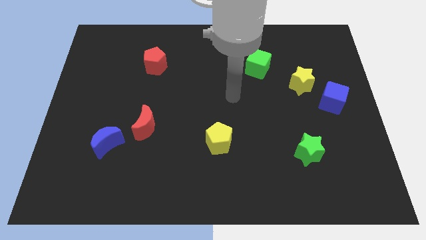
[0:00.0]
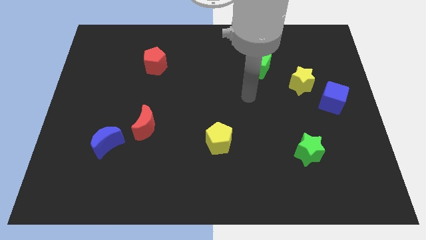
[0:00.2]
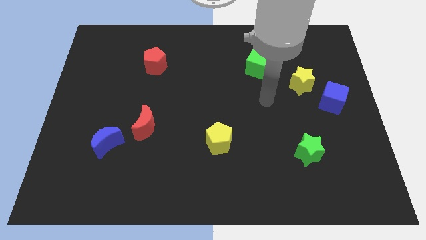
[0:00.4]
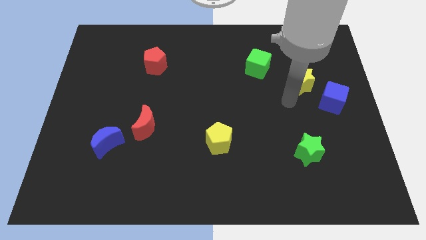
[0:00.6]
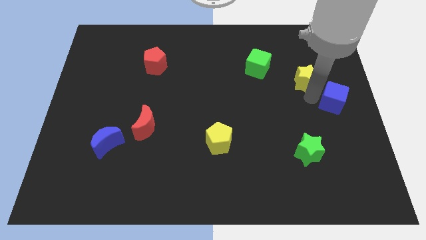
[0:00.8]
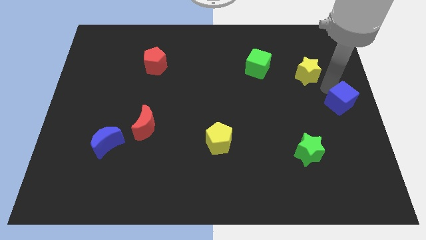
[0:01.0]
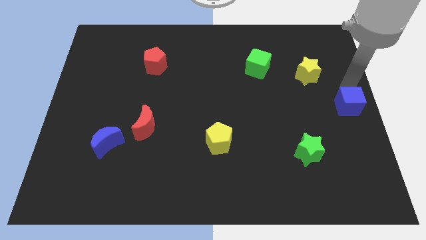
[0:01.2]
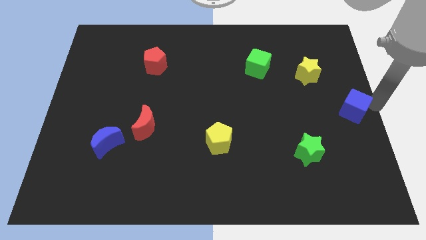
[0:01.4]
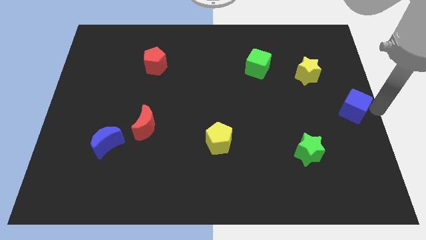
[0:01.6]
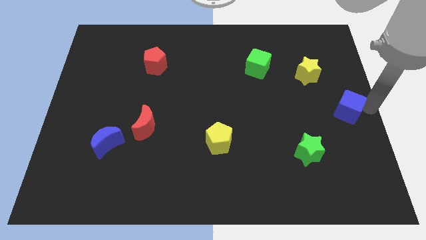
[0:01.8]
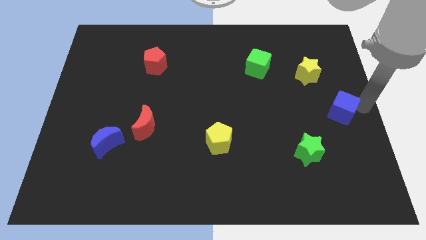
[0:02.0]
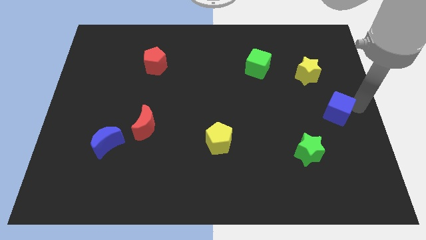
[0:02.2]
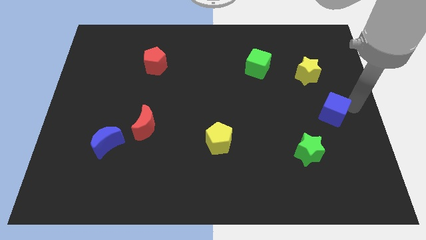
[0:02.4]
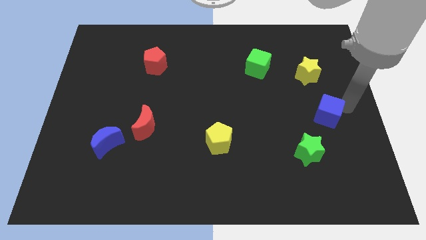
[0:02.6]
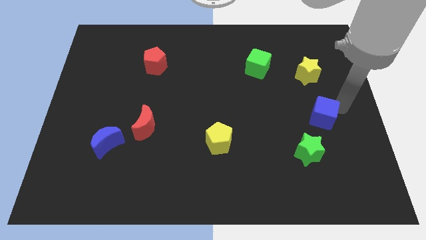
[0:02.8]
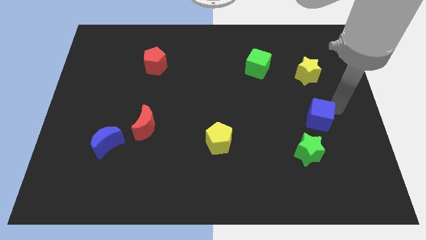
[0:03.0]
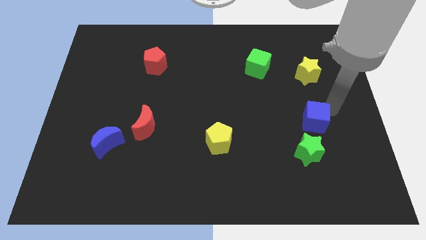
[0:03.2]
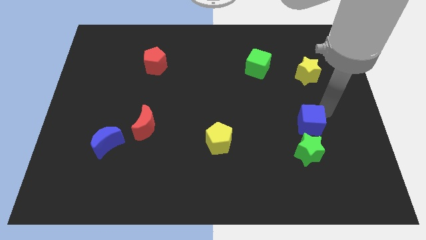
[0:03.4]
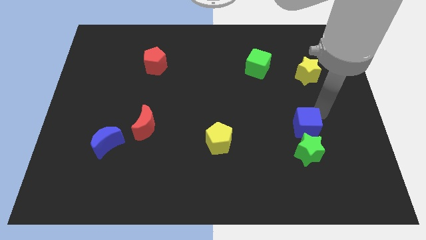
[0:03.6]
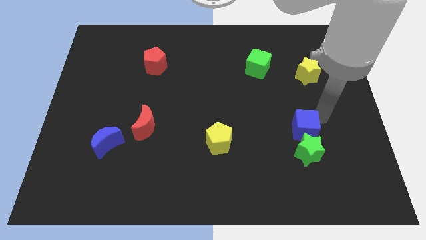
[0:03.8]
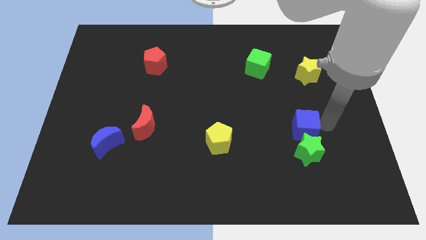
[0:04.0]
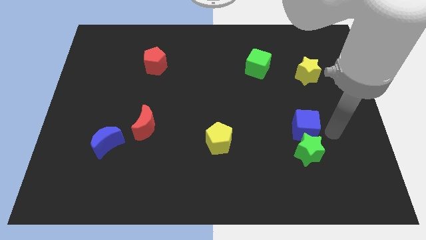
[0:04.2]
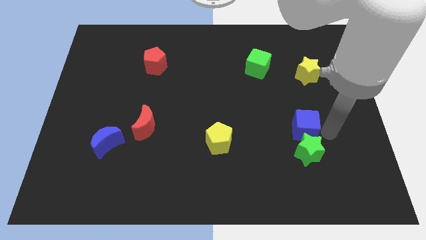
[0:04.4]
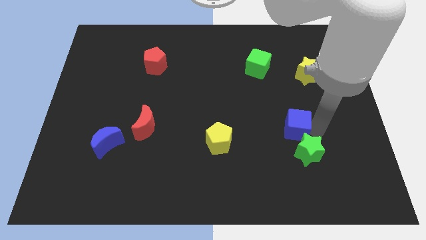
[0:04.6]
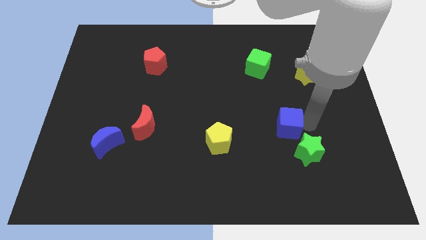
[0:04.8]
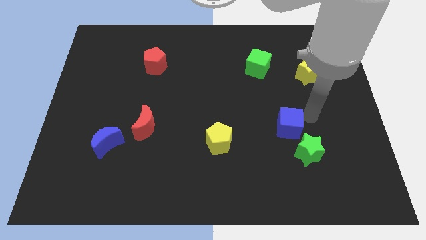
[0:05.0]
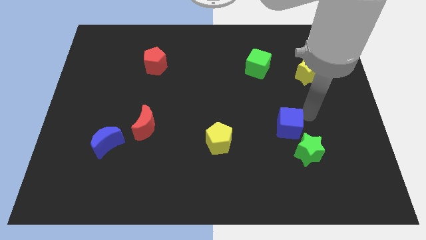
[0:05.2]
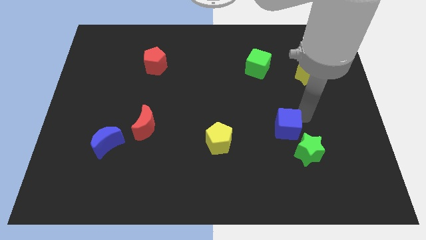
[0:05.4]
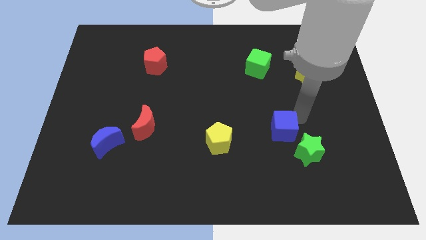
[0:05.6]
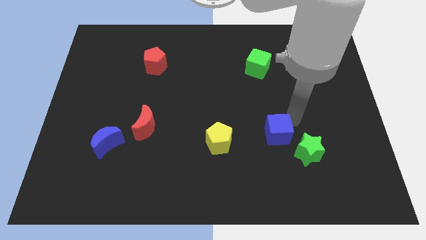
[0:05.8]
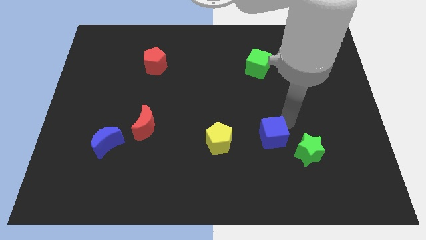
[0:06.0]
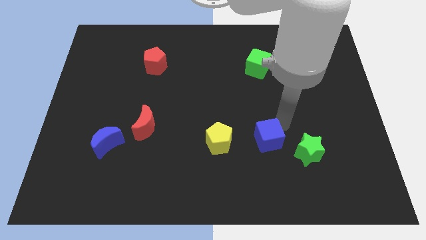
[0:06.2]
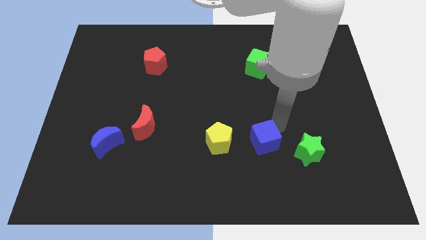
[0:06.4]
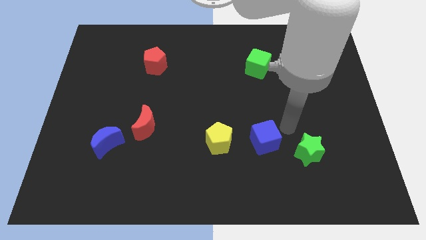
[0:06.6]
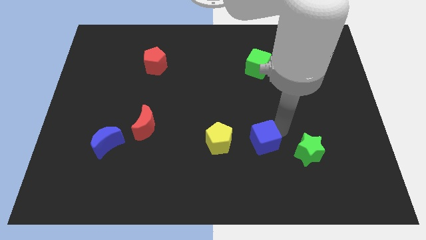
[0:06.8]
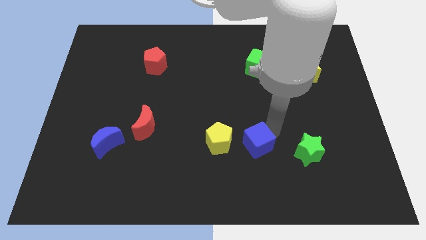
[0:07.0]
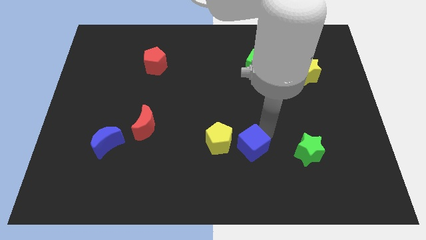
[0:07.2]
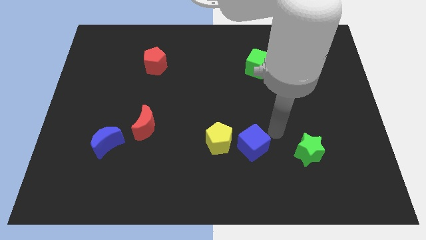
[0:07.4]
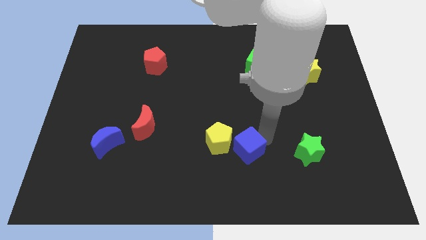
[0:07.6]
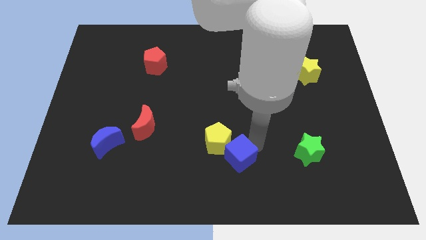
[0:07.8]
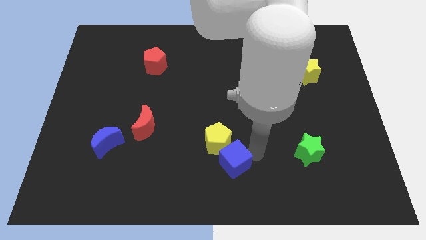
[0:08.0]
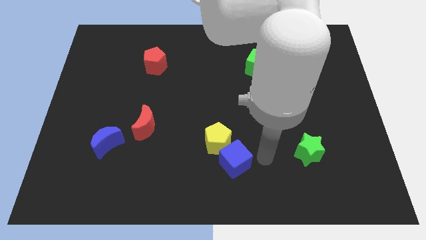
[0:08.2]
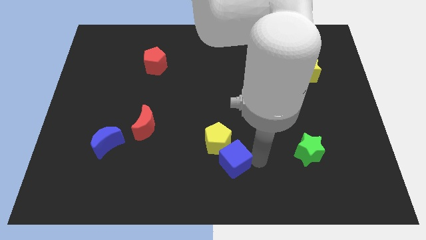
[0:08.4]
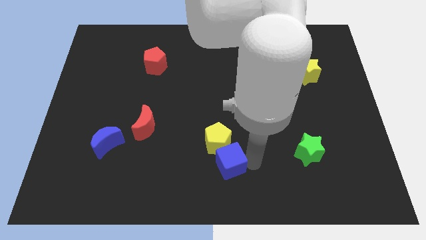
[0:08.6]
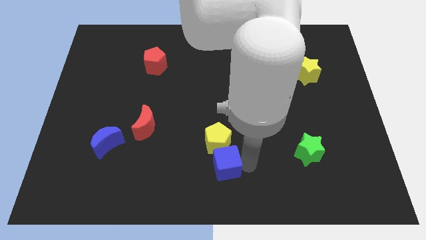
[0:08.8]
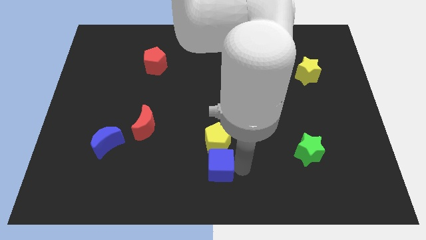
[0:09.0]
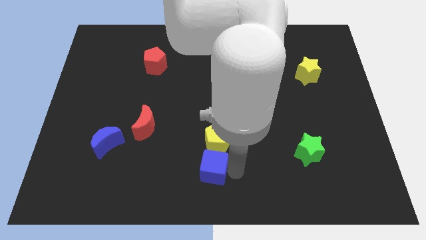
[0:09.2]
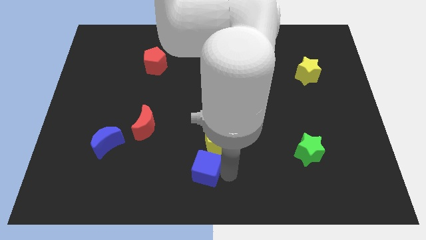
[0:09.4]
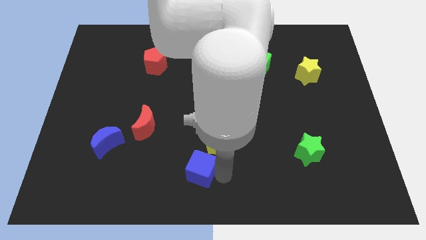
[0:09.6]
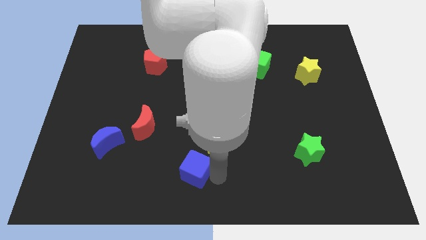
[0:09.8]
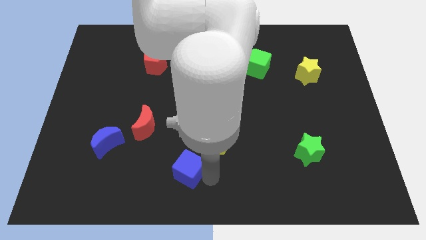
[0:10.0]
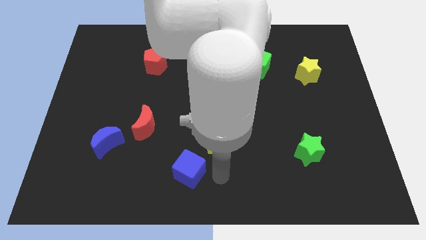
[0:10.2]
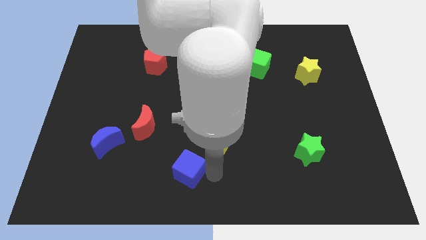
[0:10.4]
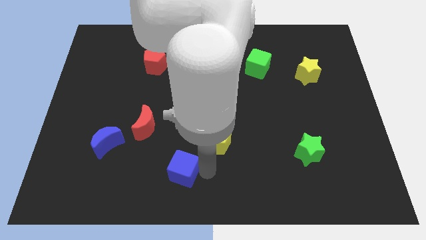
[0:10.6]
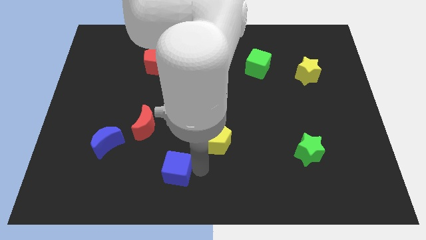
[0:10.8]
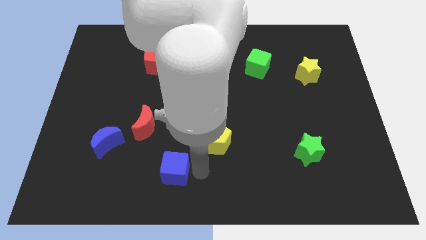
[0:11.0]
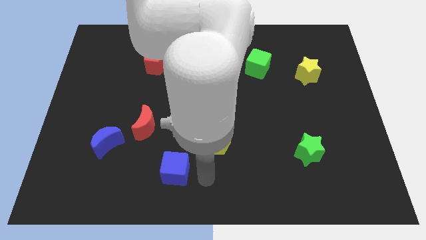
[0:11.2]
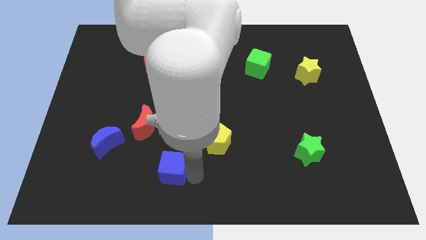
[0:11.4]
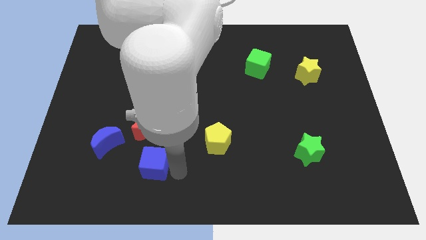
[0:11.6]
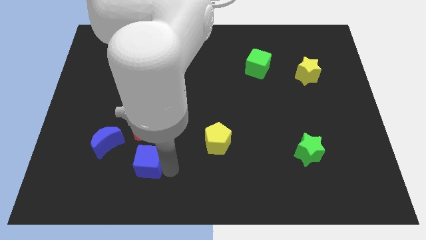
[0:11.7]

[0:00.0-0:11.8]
move the blue cube to the bottom right side of the blue moon

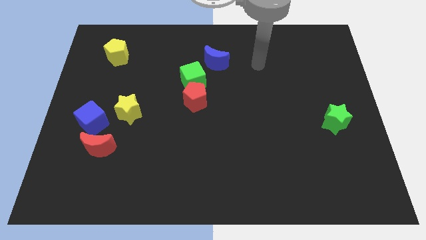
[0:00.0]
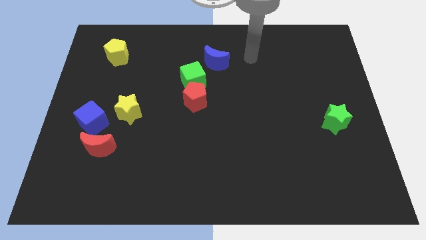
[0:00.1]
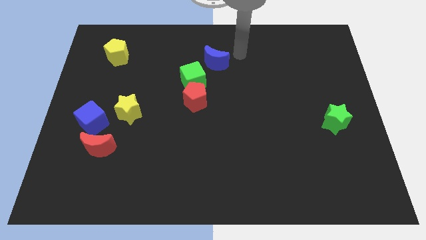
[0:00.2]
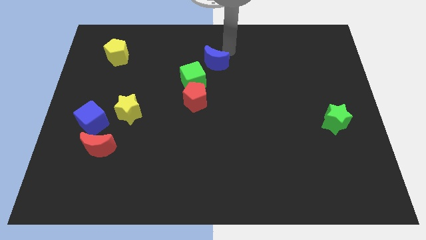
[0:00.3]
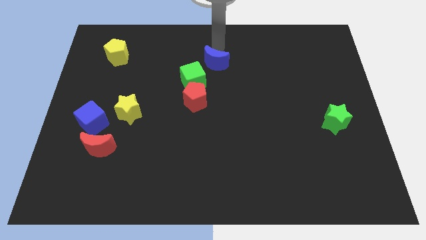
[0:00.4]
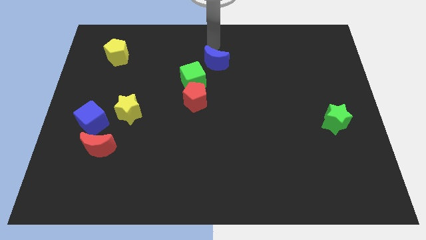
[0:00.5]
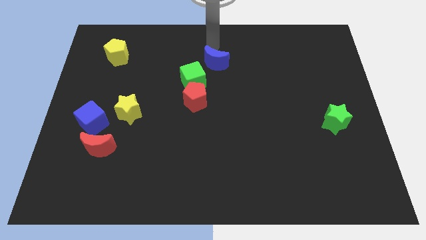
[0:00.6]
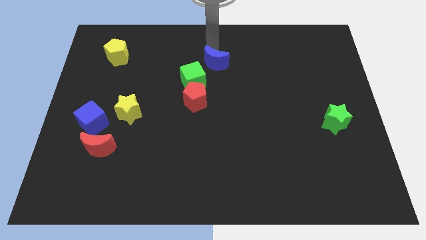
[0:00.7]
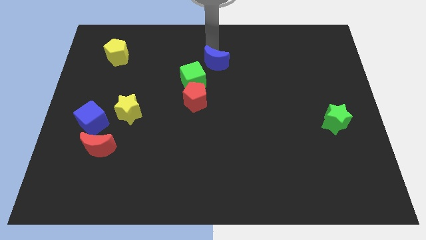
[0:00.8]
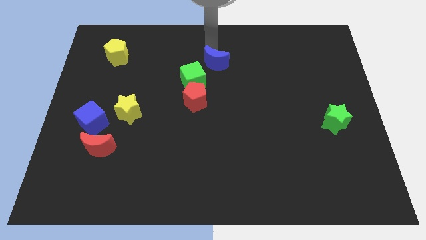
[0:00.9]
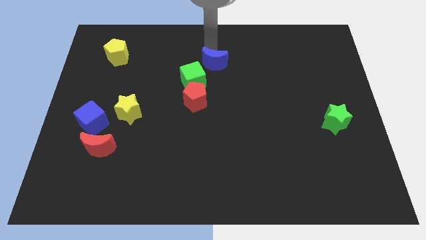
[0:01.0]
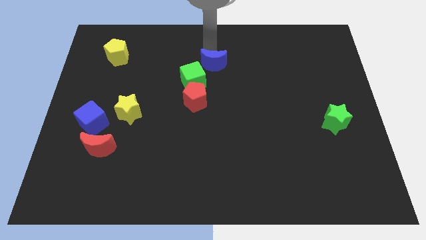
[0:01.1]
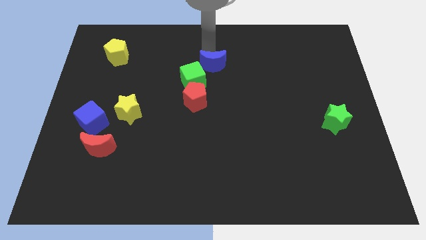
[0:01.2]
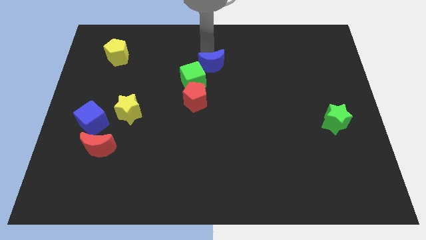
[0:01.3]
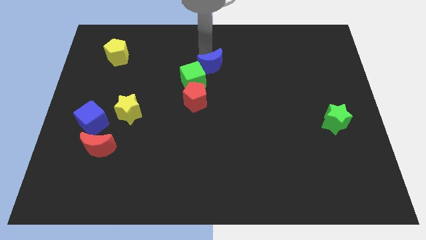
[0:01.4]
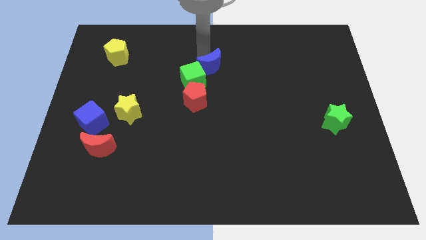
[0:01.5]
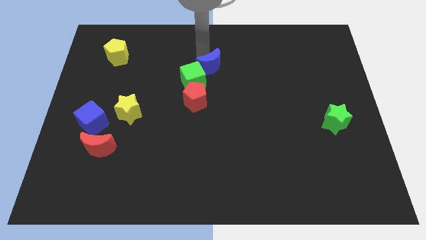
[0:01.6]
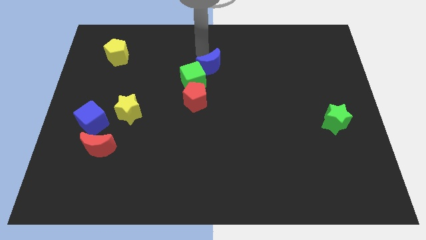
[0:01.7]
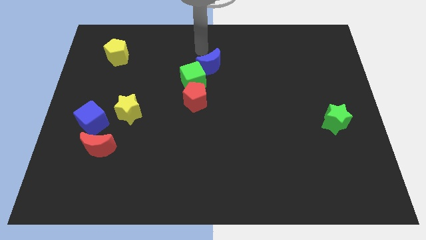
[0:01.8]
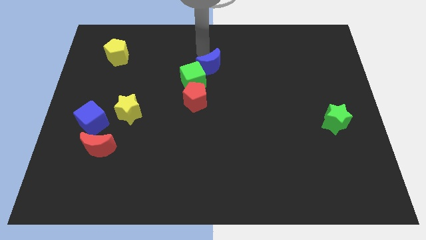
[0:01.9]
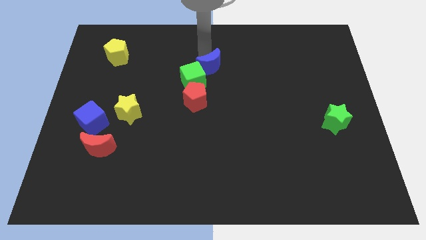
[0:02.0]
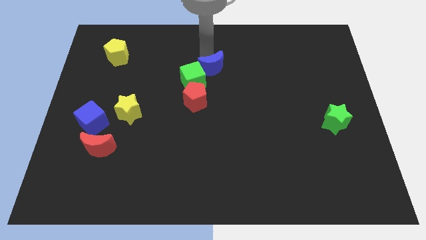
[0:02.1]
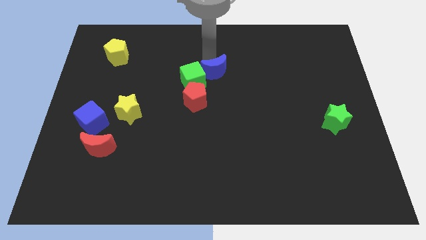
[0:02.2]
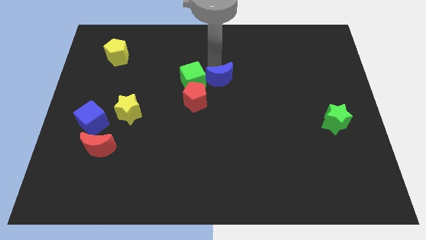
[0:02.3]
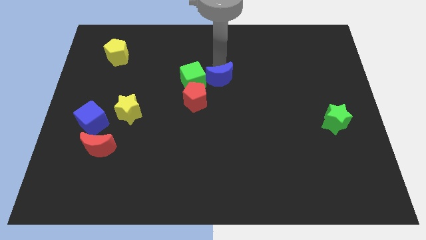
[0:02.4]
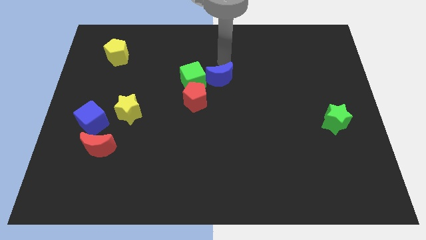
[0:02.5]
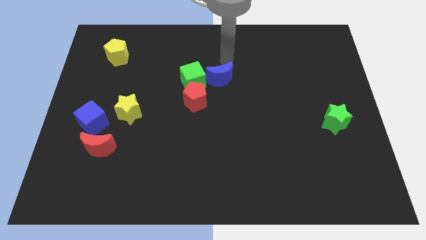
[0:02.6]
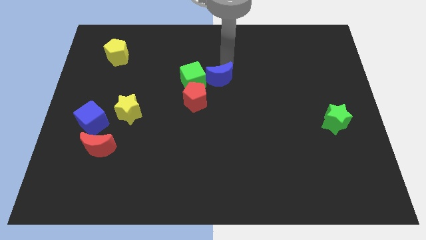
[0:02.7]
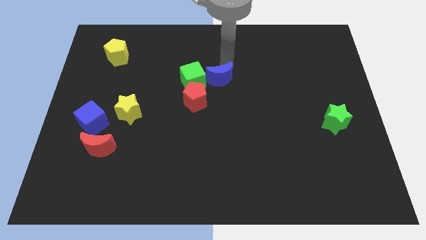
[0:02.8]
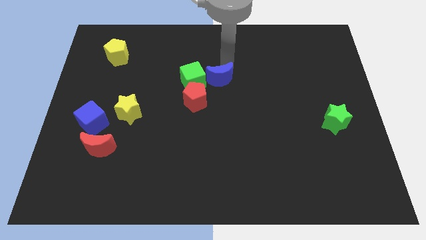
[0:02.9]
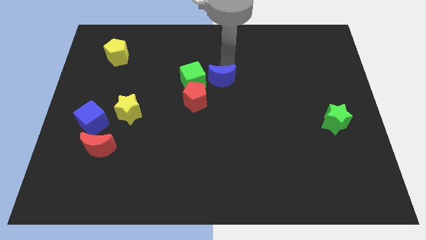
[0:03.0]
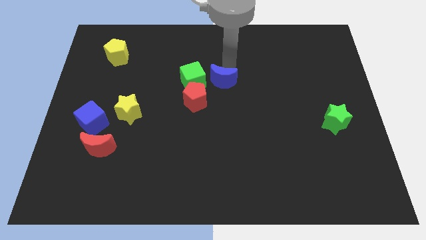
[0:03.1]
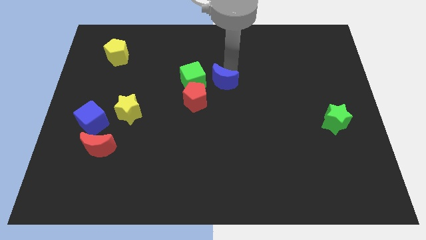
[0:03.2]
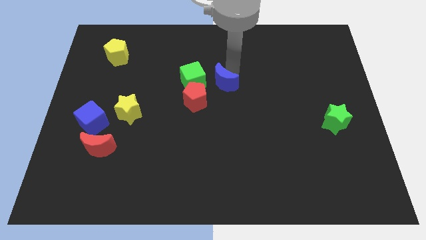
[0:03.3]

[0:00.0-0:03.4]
push the blue moon to the bottom right side of the green cube
